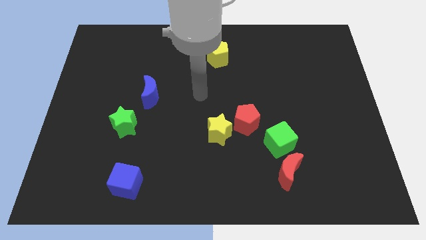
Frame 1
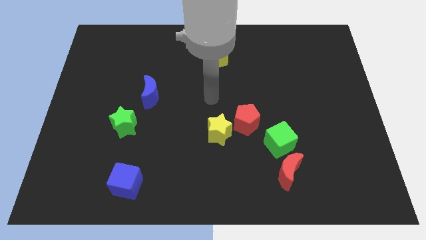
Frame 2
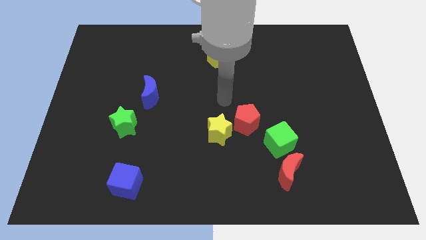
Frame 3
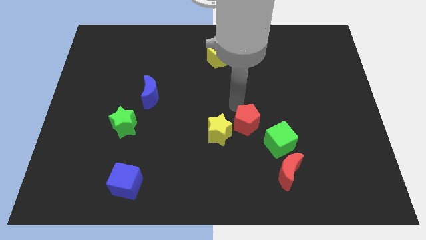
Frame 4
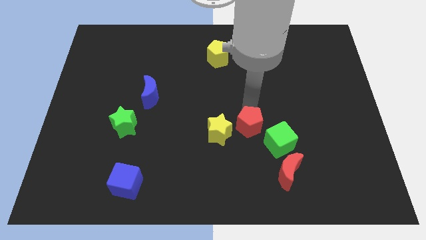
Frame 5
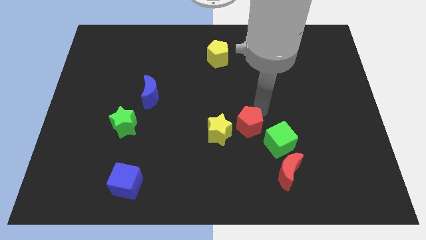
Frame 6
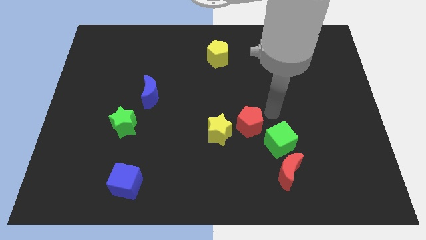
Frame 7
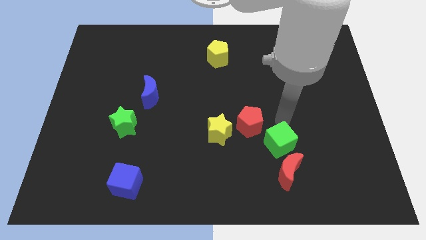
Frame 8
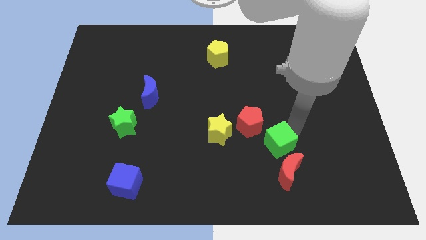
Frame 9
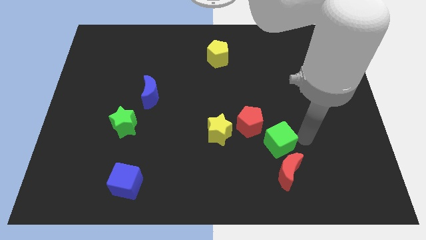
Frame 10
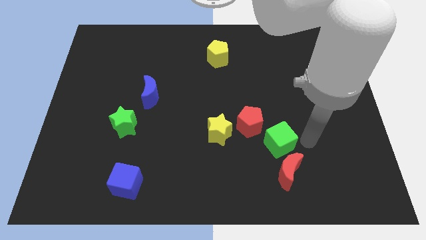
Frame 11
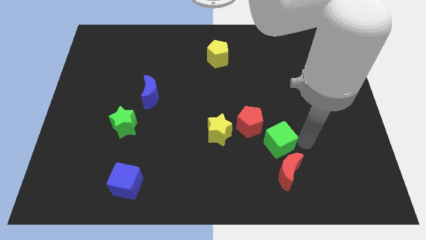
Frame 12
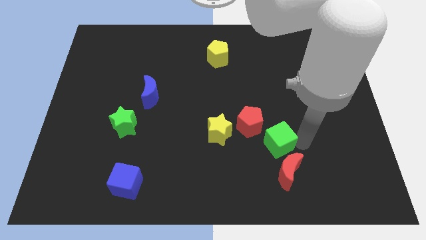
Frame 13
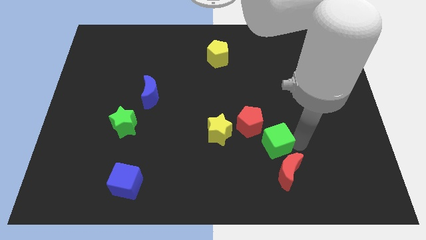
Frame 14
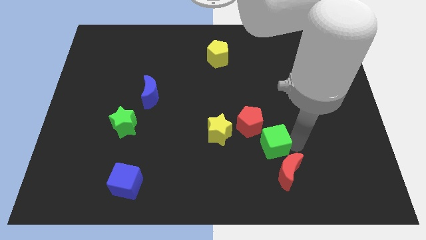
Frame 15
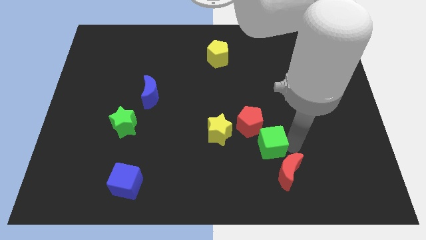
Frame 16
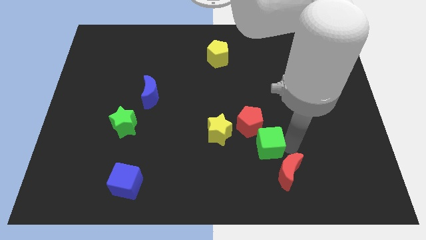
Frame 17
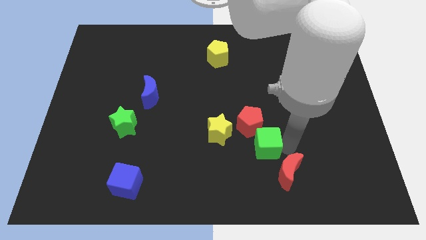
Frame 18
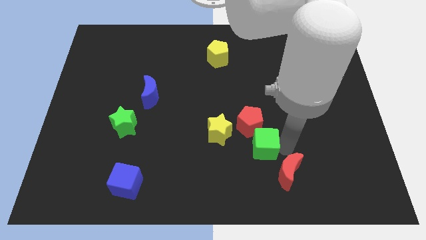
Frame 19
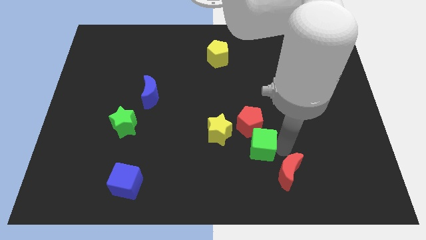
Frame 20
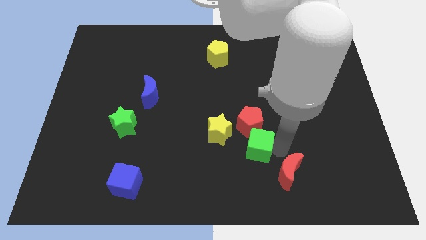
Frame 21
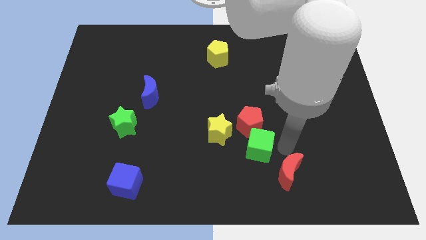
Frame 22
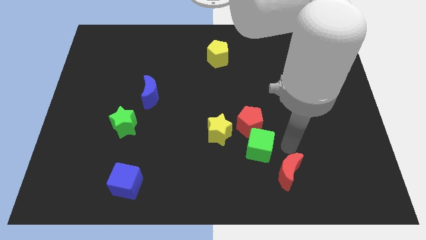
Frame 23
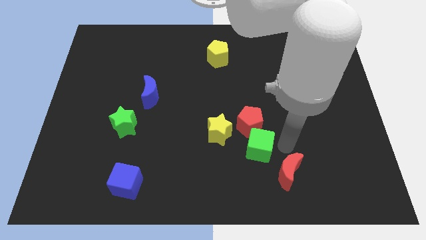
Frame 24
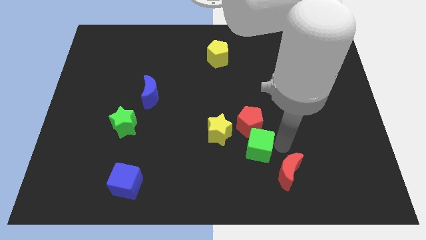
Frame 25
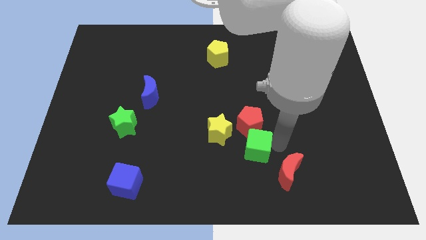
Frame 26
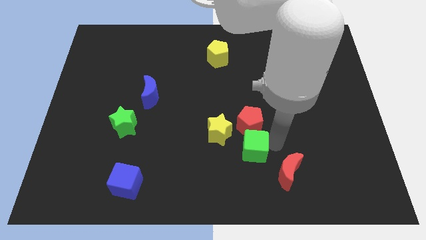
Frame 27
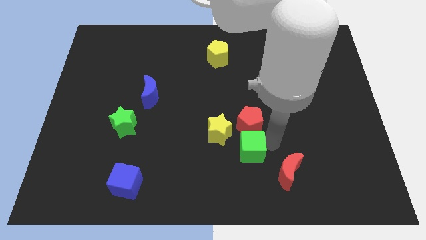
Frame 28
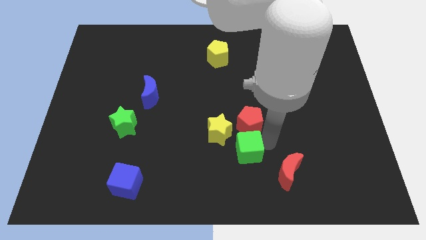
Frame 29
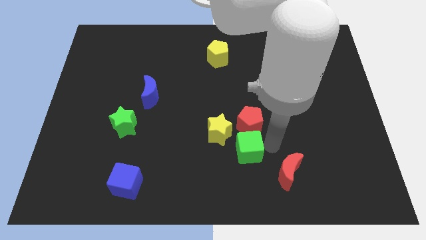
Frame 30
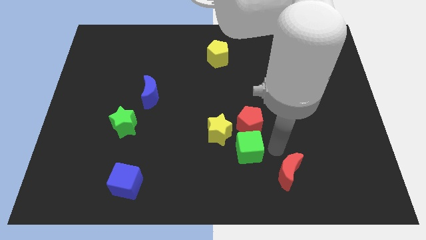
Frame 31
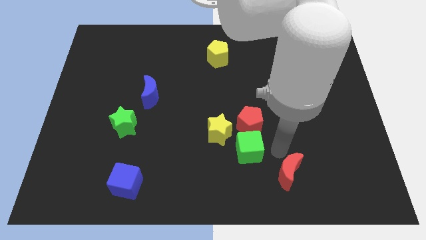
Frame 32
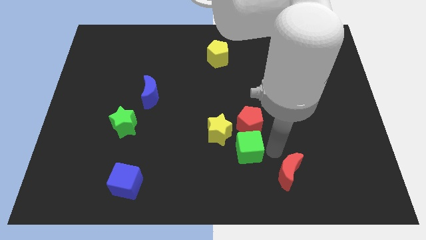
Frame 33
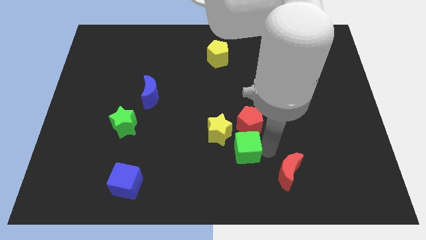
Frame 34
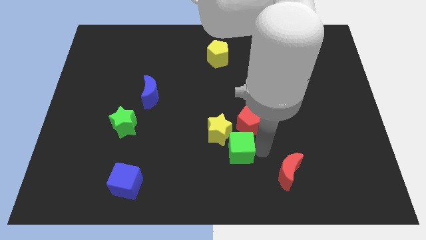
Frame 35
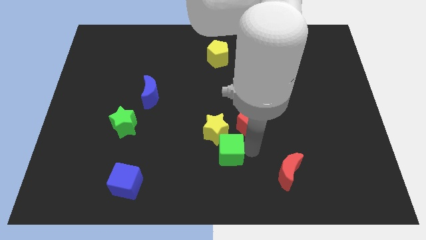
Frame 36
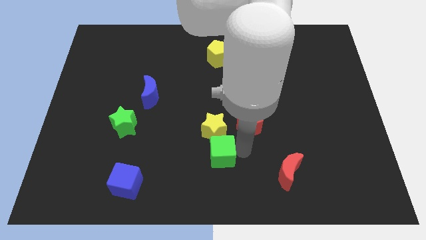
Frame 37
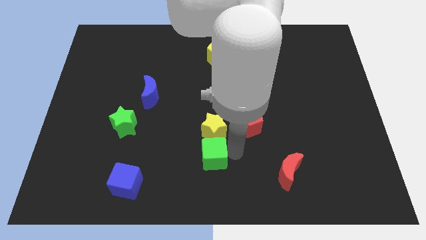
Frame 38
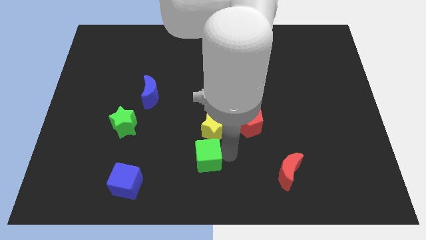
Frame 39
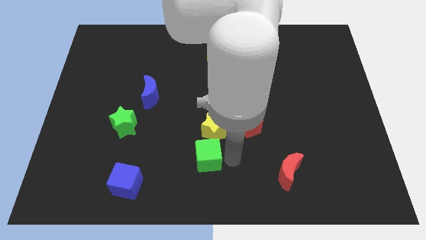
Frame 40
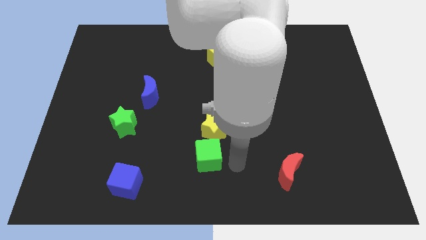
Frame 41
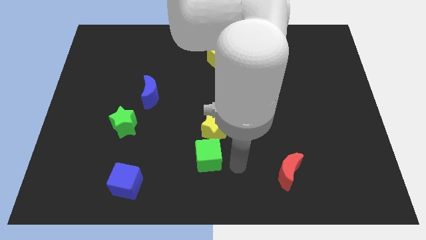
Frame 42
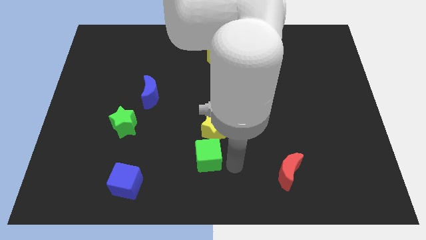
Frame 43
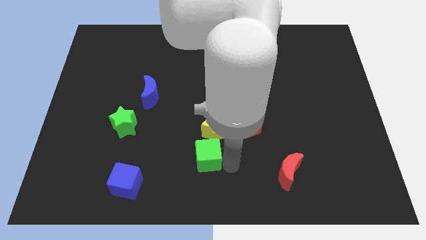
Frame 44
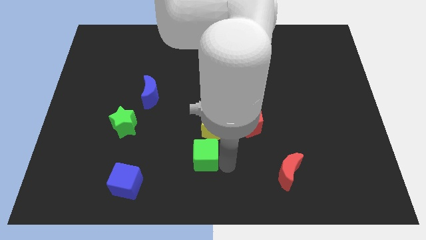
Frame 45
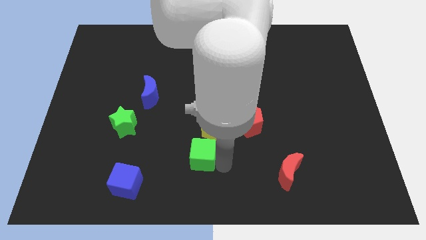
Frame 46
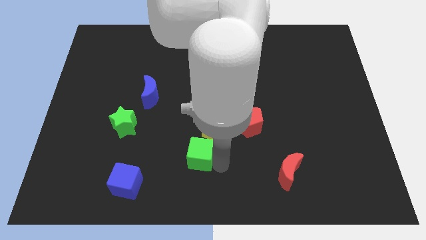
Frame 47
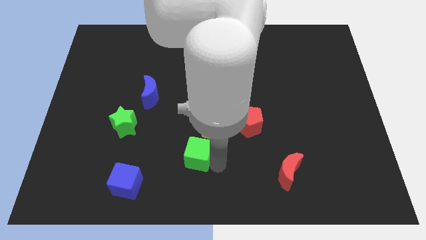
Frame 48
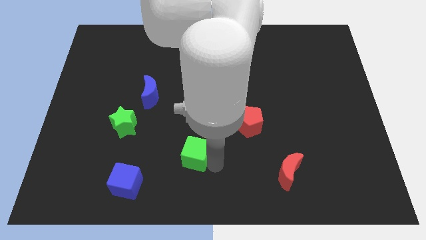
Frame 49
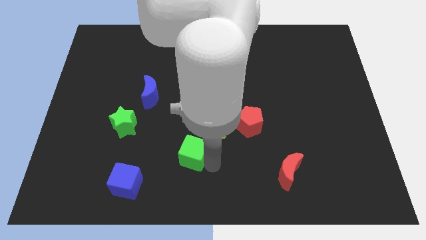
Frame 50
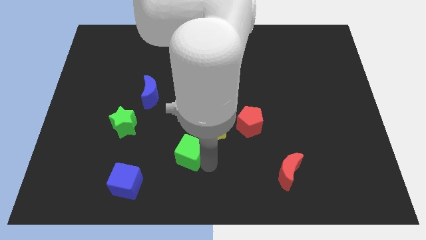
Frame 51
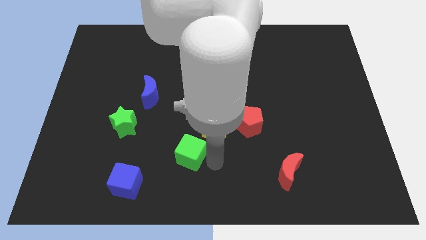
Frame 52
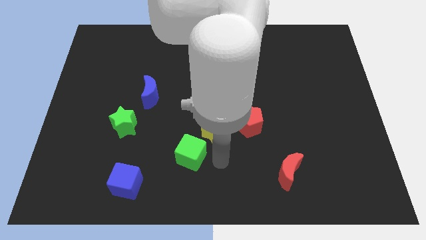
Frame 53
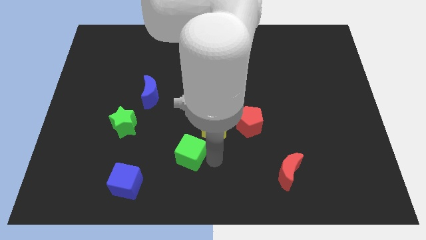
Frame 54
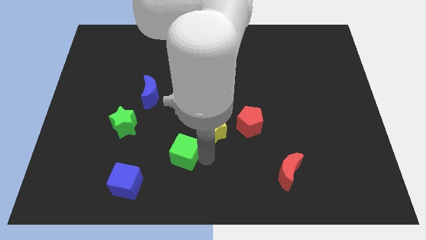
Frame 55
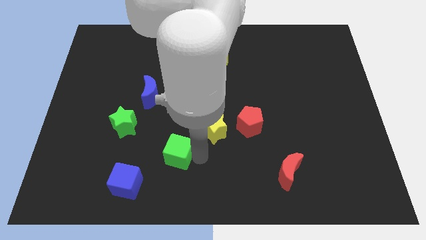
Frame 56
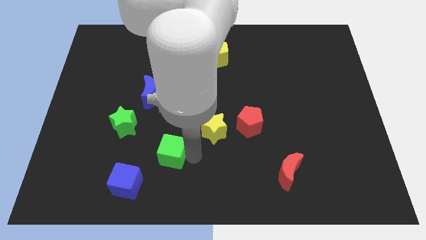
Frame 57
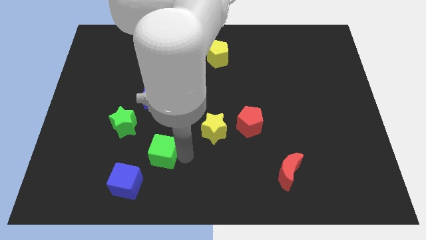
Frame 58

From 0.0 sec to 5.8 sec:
push the green cube to the bottom right side of the green star
